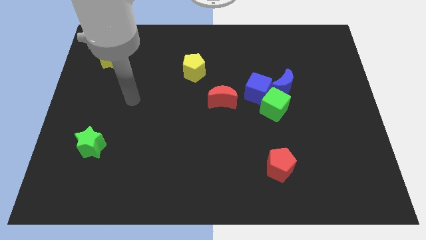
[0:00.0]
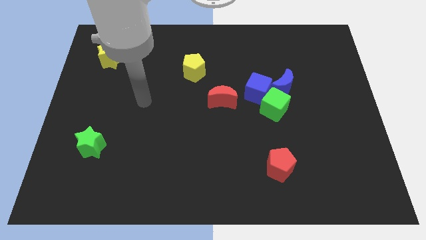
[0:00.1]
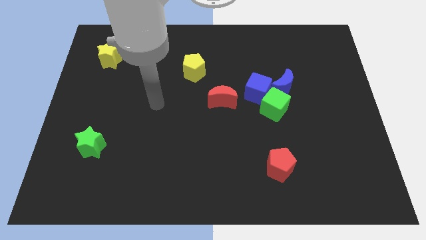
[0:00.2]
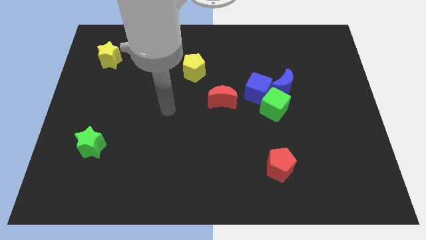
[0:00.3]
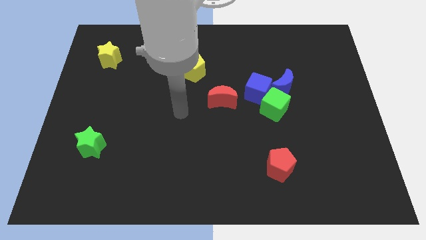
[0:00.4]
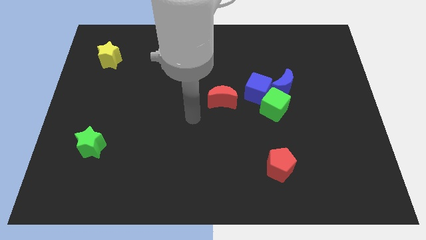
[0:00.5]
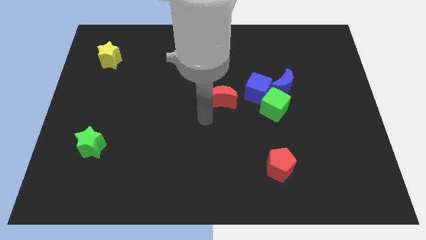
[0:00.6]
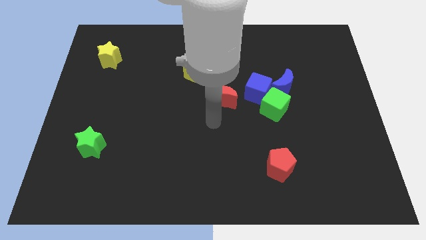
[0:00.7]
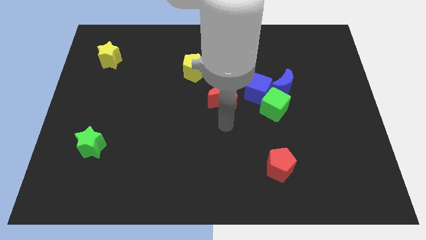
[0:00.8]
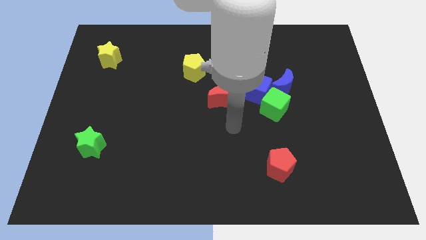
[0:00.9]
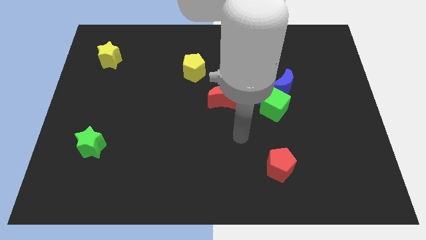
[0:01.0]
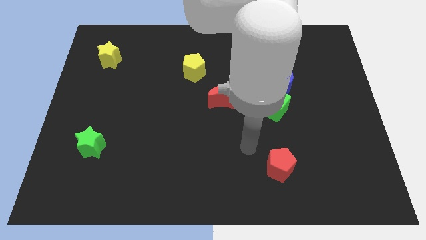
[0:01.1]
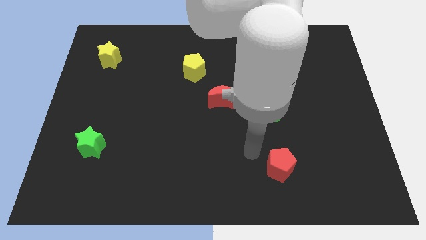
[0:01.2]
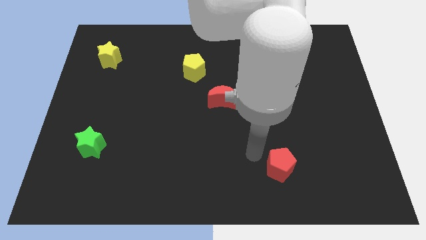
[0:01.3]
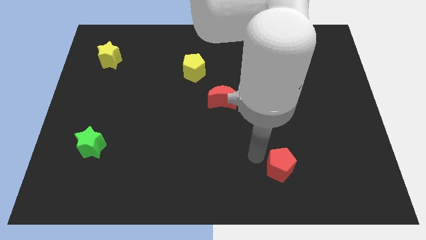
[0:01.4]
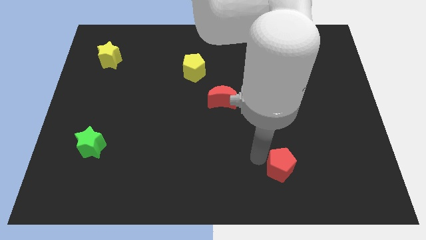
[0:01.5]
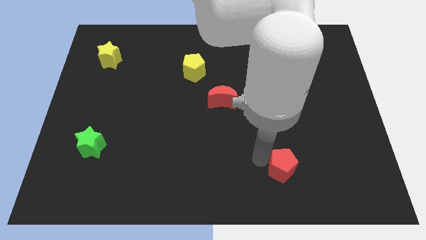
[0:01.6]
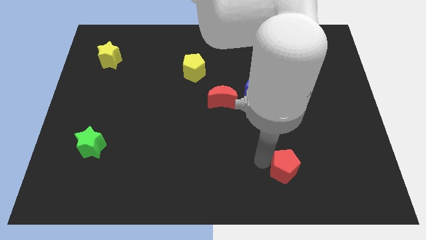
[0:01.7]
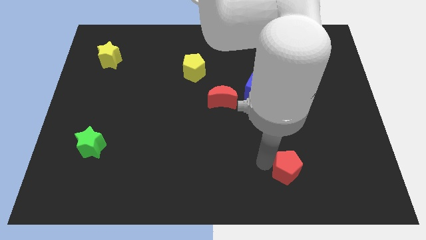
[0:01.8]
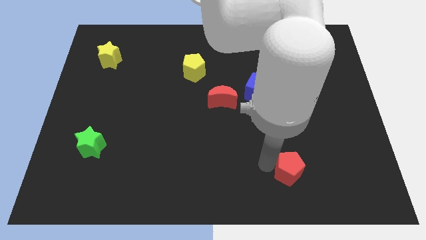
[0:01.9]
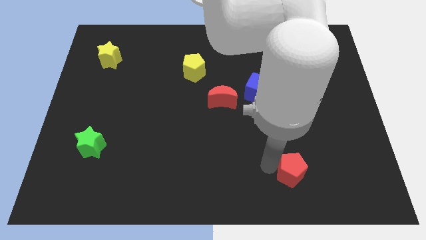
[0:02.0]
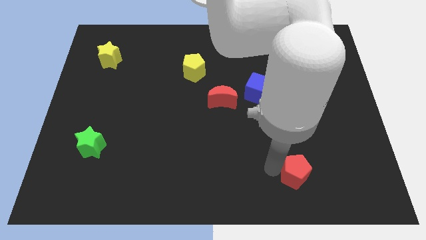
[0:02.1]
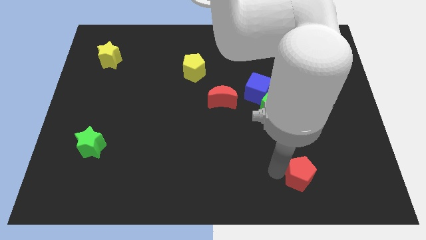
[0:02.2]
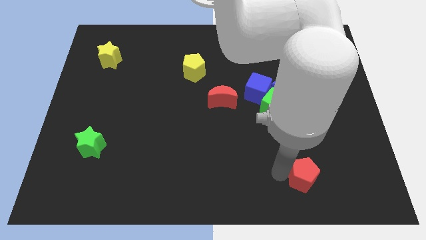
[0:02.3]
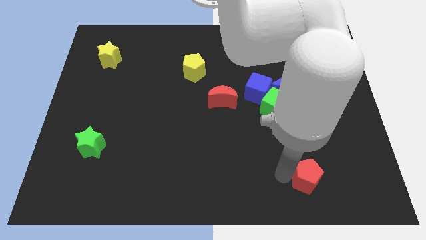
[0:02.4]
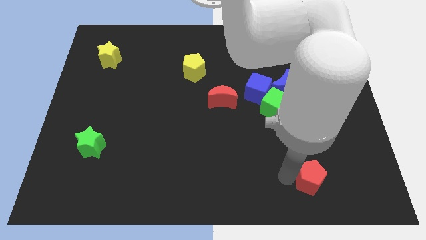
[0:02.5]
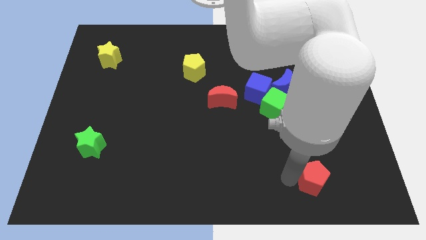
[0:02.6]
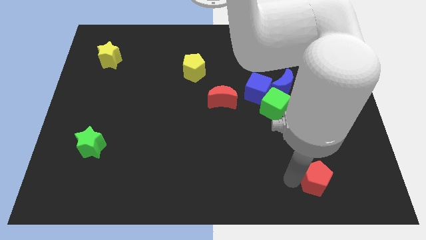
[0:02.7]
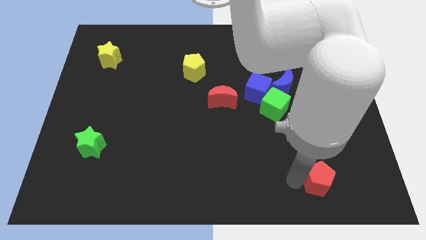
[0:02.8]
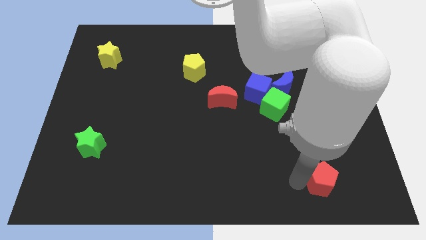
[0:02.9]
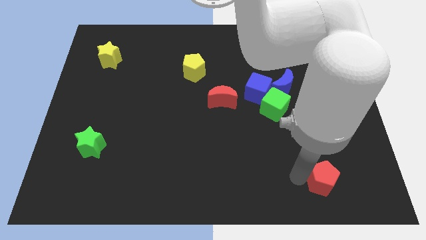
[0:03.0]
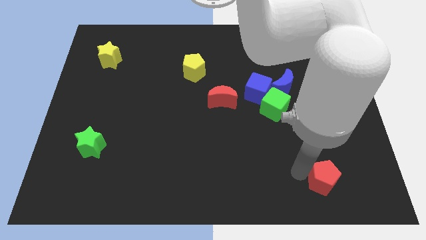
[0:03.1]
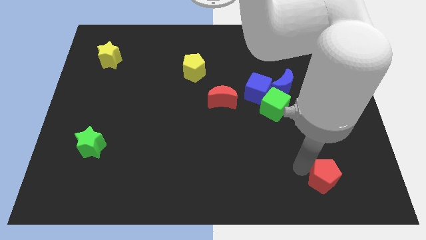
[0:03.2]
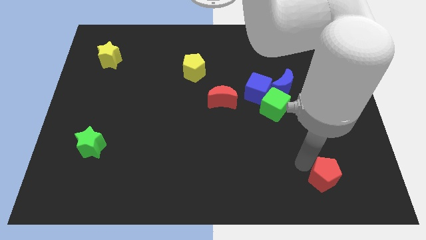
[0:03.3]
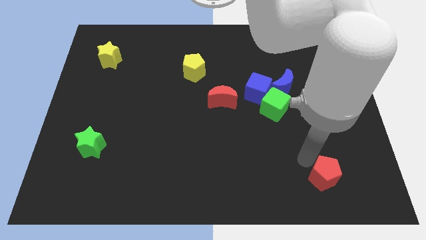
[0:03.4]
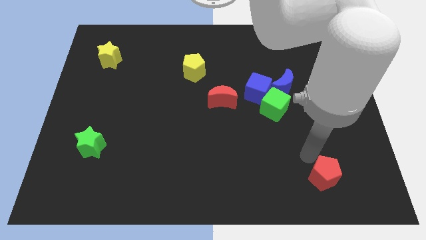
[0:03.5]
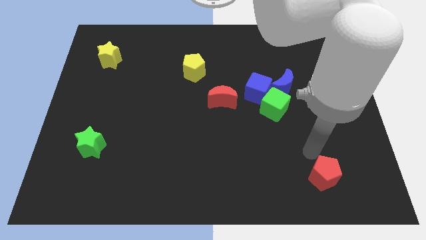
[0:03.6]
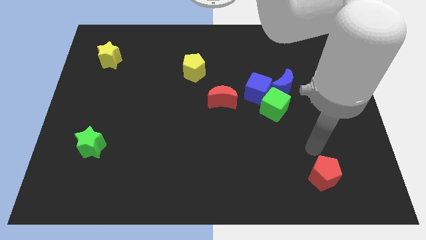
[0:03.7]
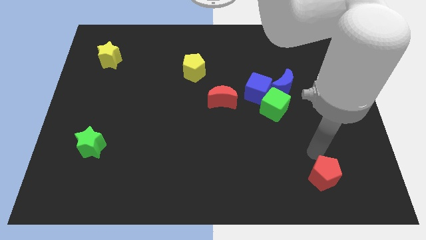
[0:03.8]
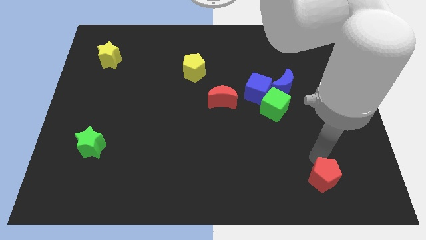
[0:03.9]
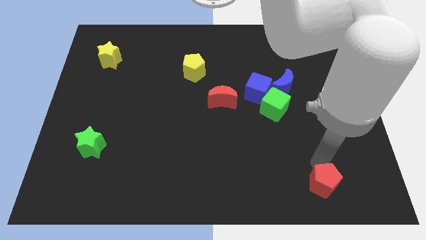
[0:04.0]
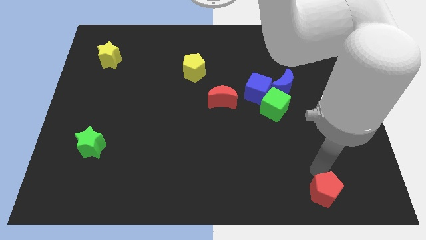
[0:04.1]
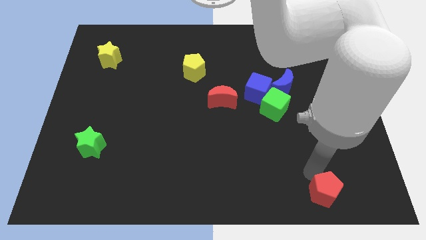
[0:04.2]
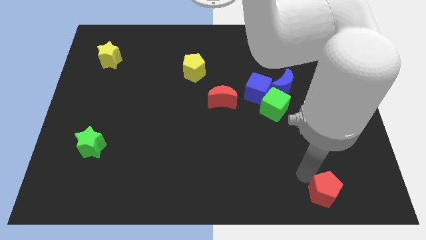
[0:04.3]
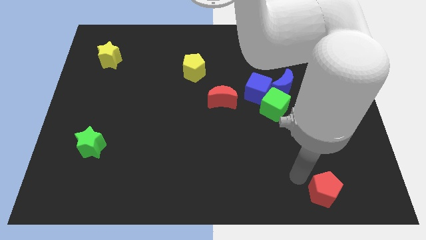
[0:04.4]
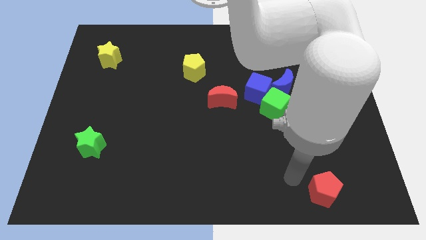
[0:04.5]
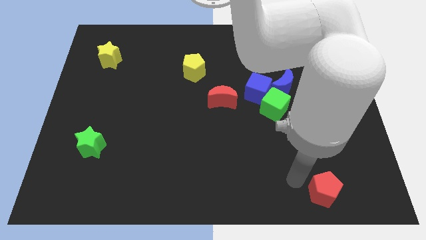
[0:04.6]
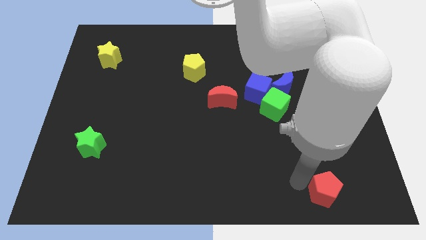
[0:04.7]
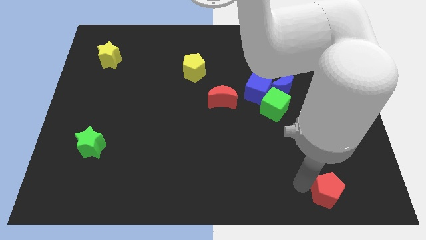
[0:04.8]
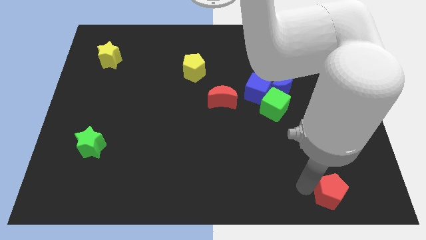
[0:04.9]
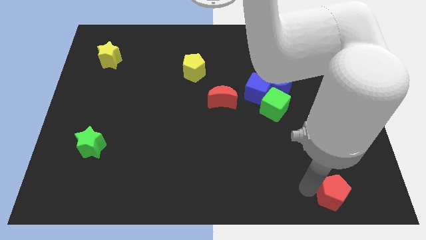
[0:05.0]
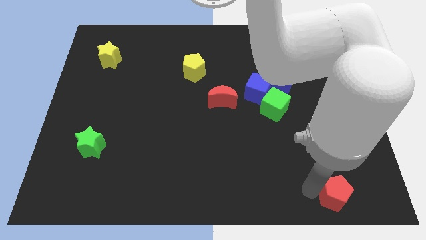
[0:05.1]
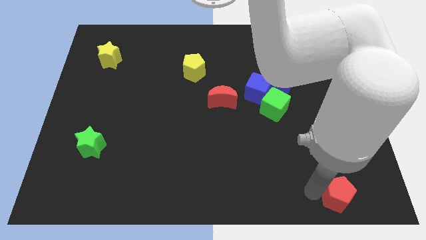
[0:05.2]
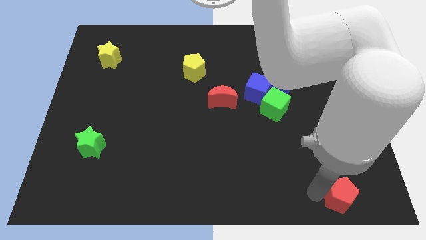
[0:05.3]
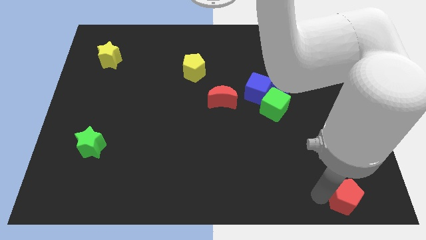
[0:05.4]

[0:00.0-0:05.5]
push the red pentagon to the bottom right of the board
